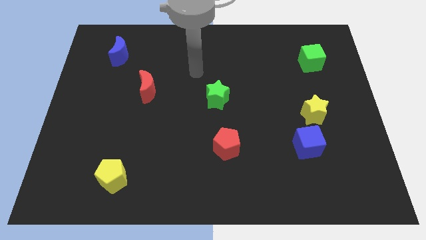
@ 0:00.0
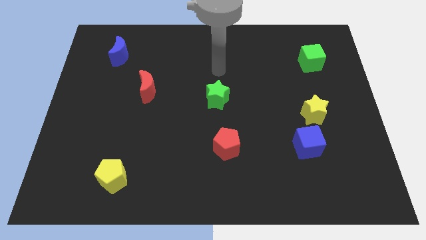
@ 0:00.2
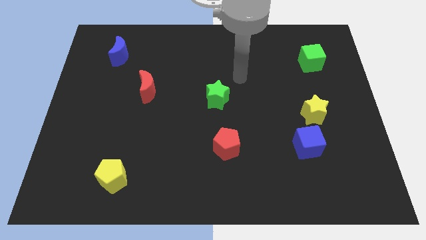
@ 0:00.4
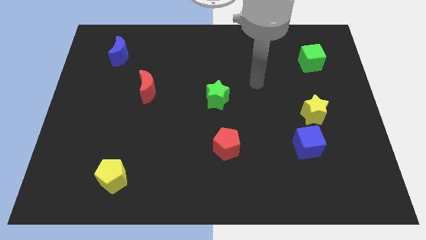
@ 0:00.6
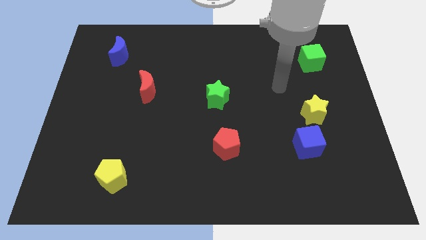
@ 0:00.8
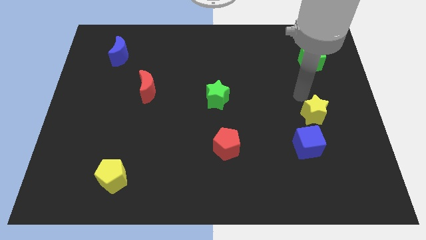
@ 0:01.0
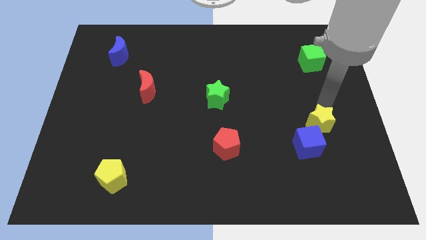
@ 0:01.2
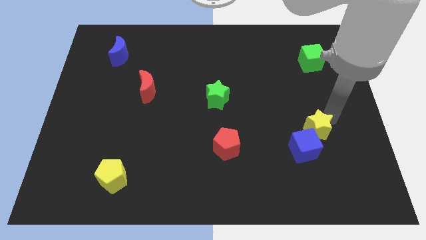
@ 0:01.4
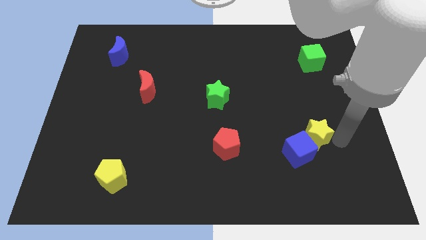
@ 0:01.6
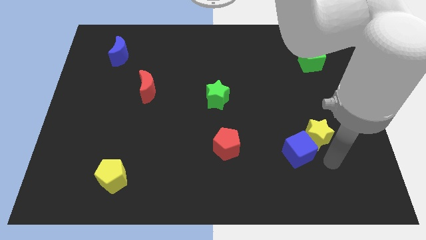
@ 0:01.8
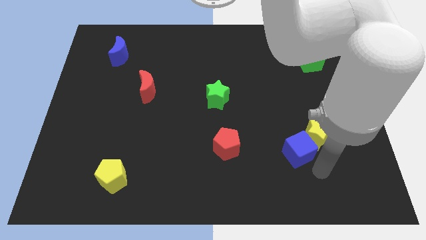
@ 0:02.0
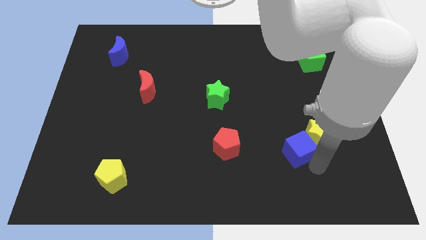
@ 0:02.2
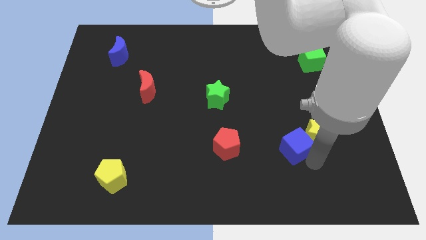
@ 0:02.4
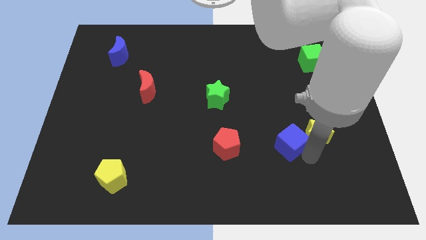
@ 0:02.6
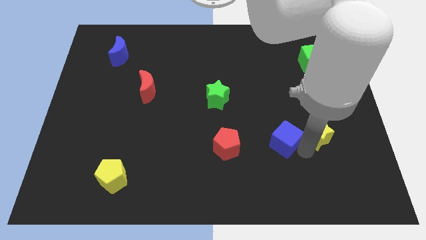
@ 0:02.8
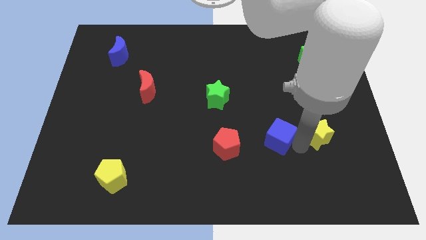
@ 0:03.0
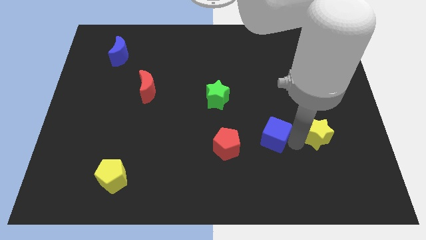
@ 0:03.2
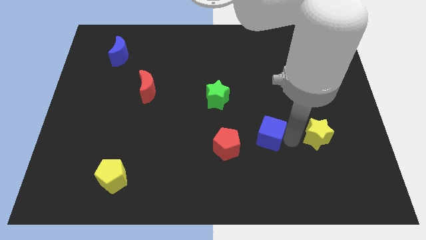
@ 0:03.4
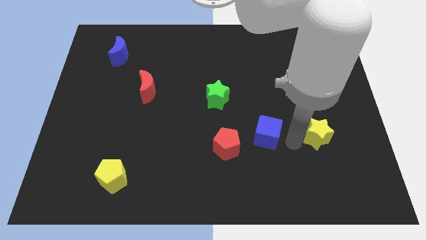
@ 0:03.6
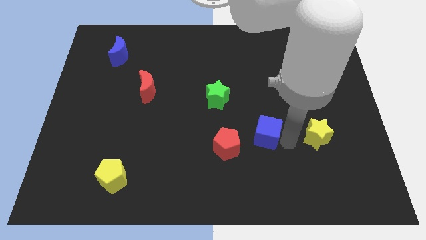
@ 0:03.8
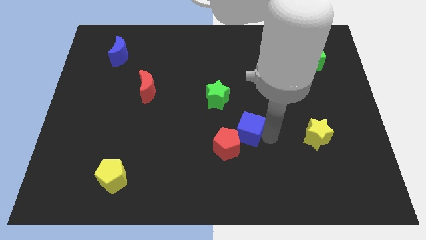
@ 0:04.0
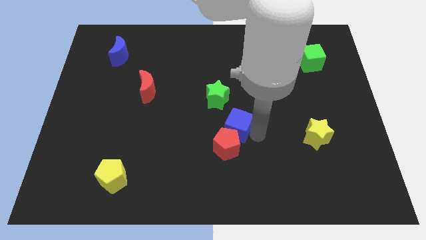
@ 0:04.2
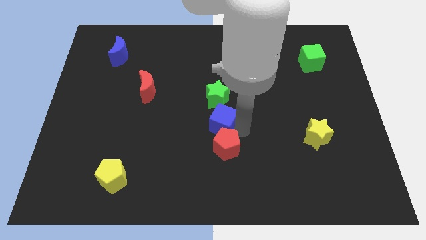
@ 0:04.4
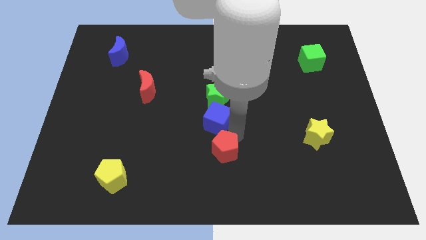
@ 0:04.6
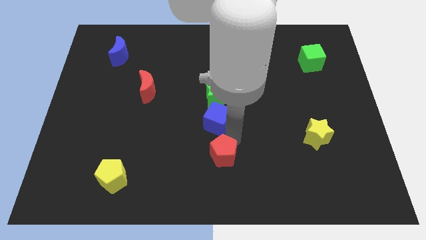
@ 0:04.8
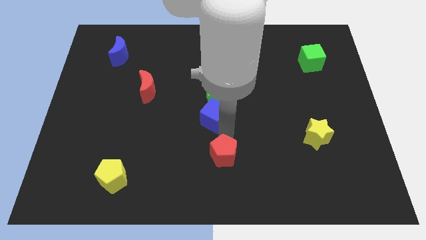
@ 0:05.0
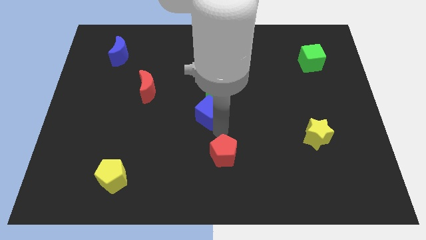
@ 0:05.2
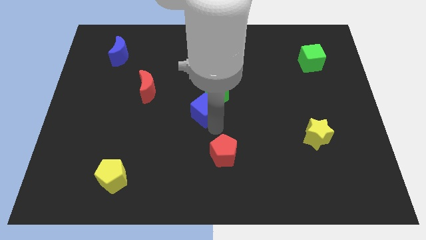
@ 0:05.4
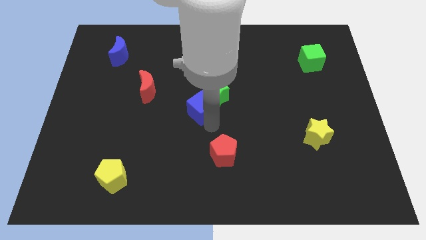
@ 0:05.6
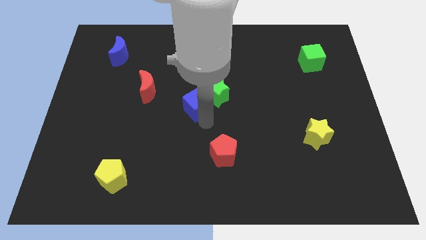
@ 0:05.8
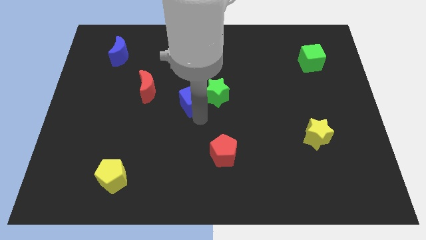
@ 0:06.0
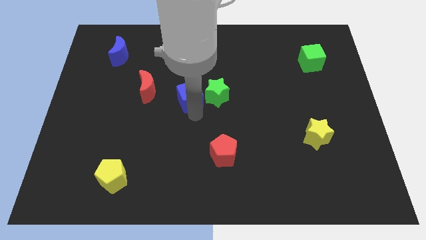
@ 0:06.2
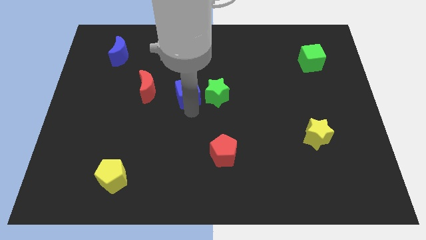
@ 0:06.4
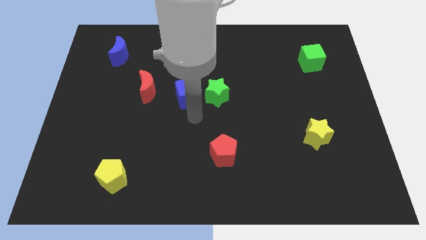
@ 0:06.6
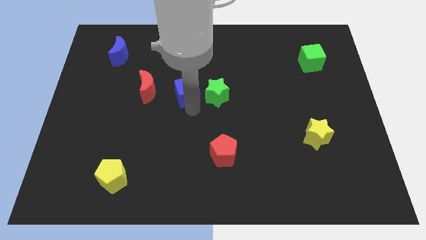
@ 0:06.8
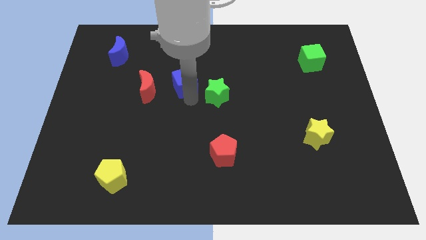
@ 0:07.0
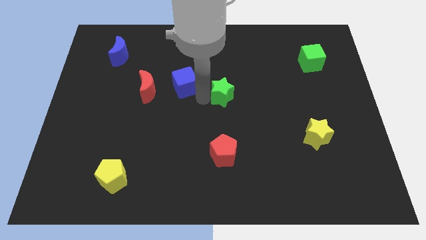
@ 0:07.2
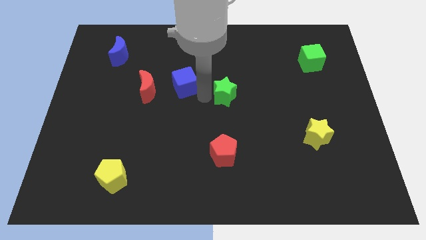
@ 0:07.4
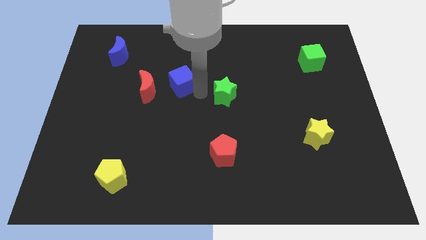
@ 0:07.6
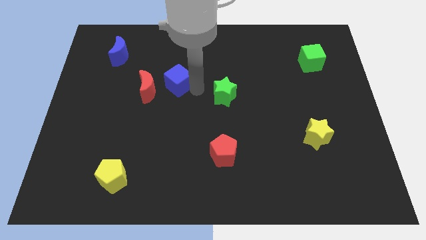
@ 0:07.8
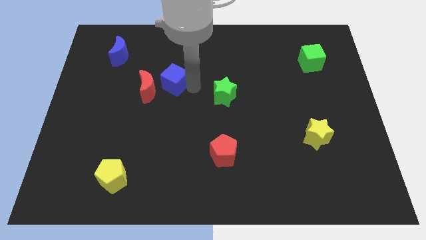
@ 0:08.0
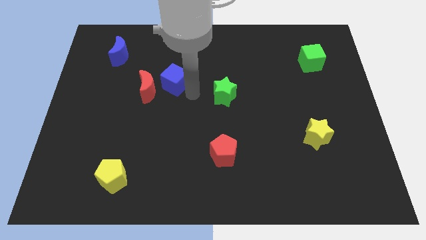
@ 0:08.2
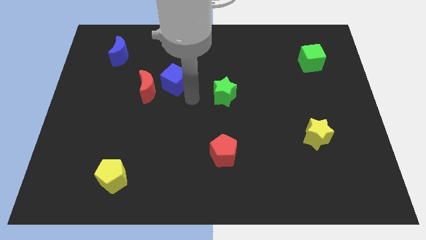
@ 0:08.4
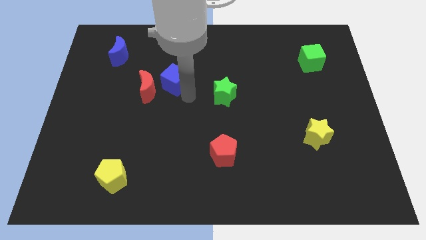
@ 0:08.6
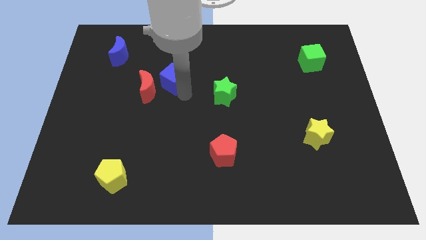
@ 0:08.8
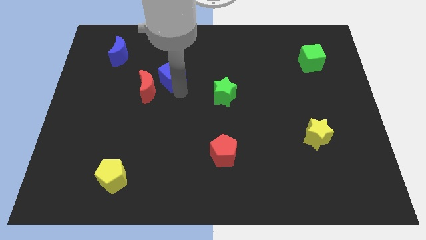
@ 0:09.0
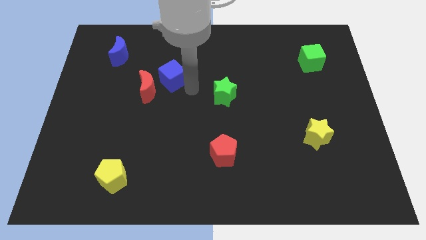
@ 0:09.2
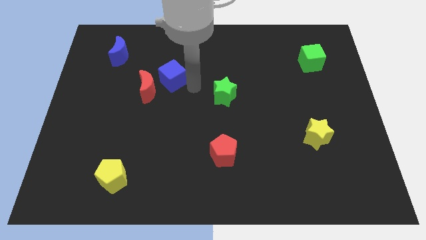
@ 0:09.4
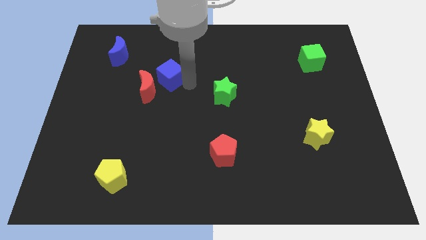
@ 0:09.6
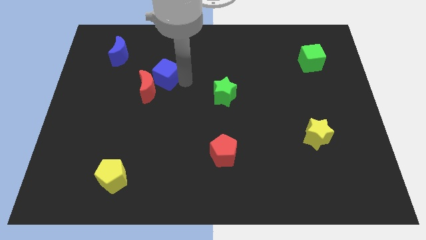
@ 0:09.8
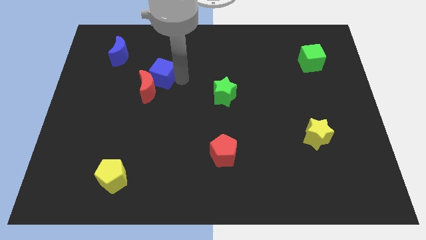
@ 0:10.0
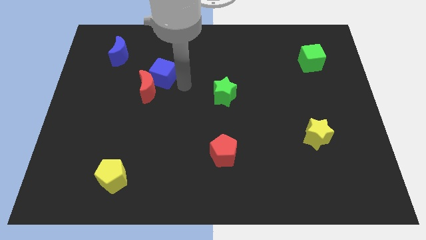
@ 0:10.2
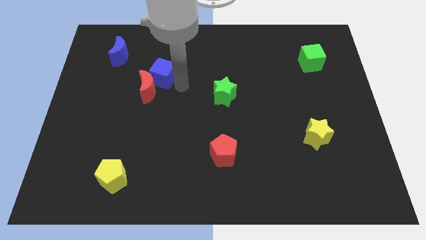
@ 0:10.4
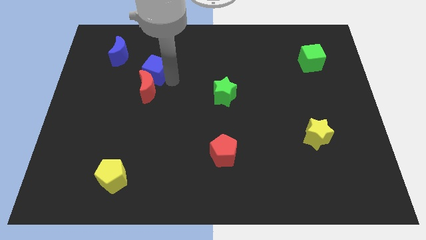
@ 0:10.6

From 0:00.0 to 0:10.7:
slide the blue cube diagonally down and to the right of the blue moon

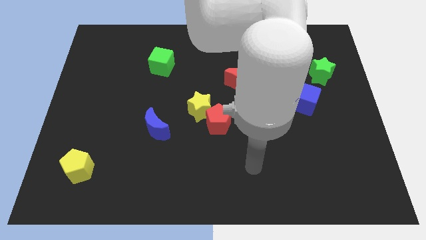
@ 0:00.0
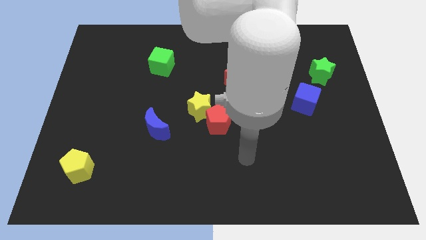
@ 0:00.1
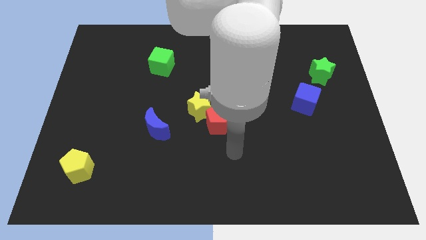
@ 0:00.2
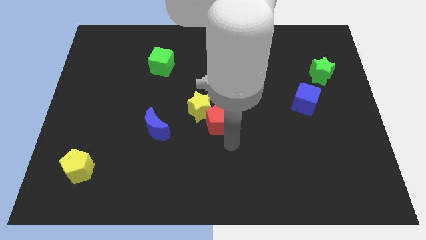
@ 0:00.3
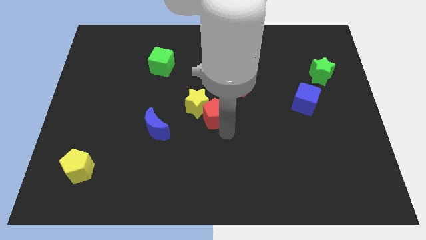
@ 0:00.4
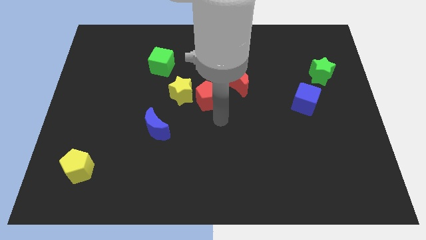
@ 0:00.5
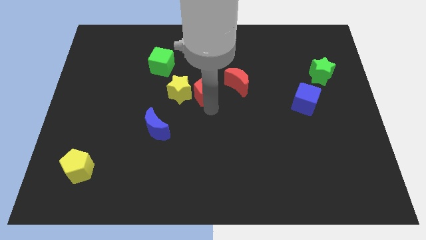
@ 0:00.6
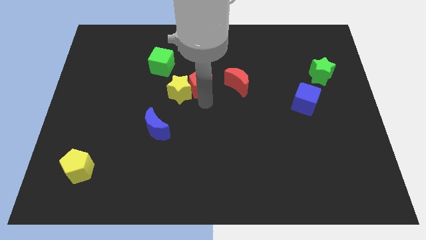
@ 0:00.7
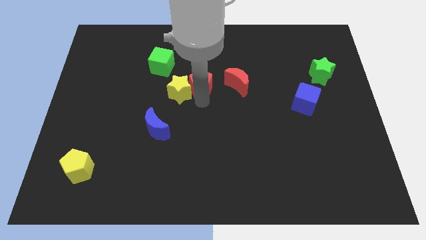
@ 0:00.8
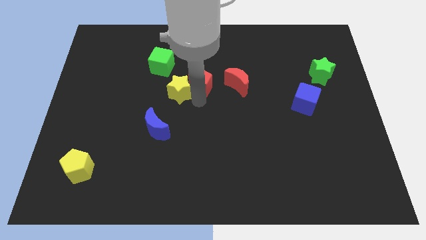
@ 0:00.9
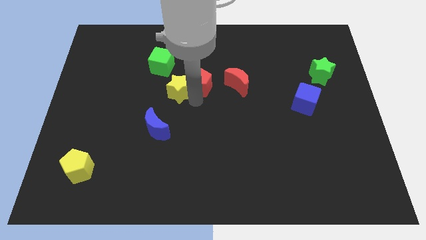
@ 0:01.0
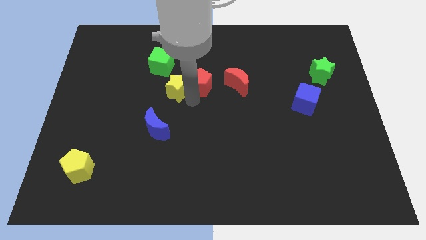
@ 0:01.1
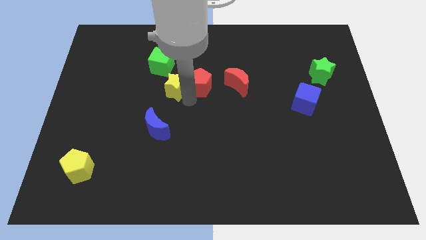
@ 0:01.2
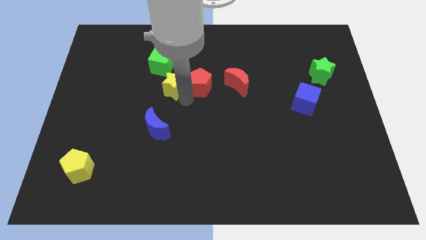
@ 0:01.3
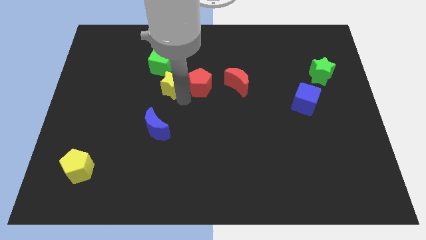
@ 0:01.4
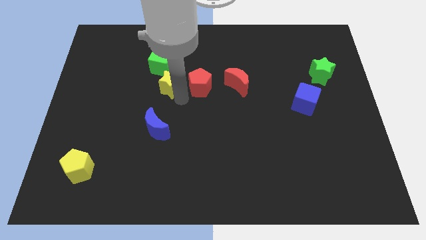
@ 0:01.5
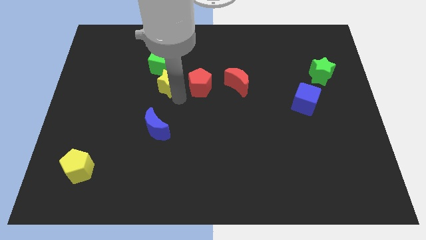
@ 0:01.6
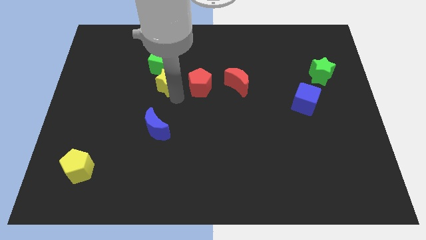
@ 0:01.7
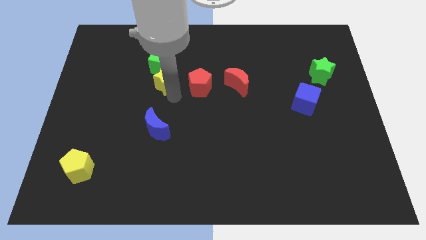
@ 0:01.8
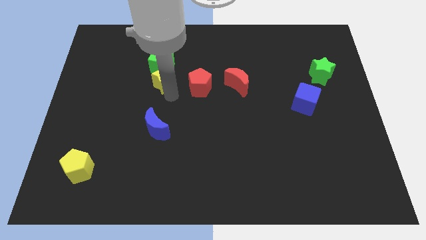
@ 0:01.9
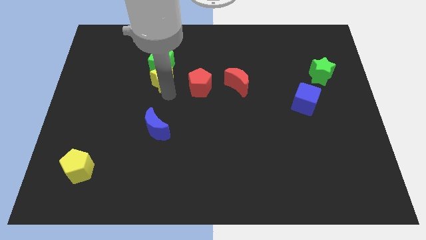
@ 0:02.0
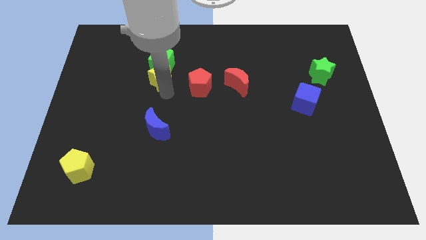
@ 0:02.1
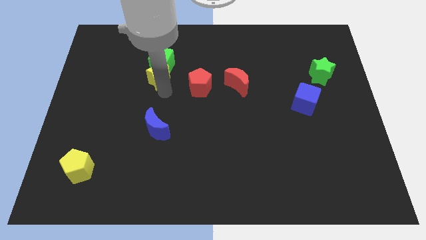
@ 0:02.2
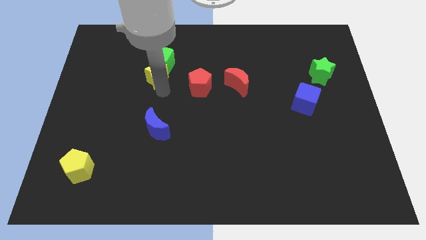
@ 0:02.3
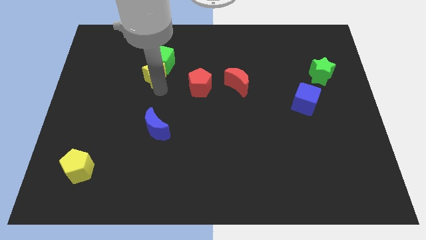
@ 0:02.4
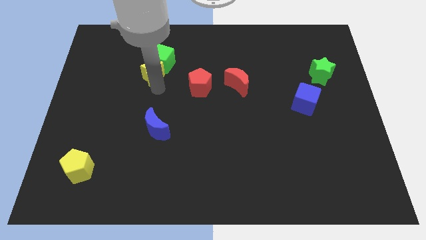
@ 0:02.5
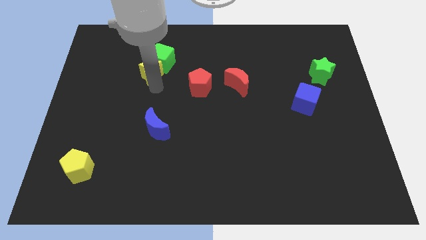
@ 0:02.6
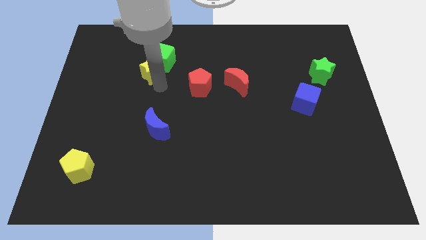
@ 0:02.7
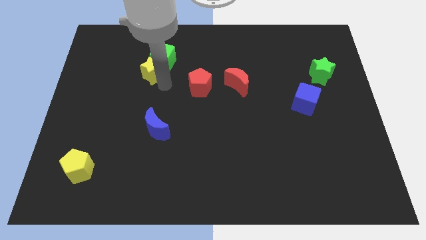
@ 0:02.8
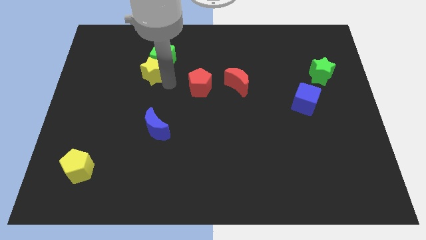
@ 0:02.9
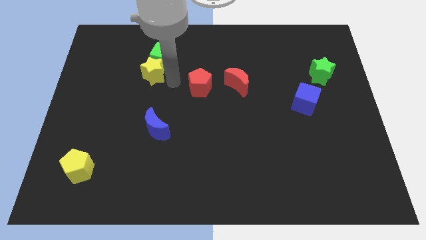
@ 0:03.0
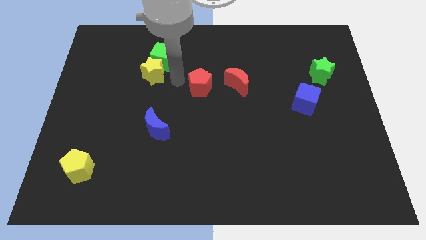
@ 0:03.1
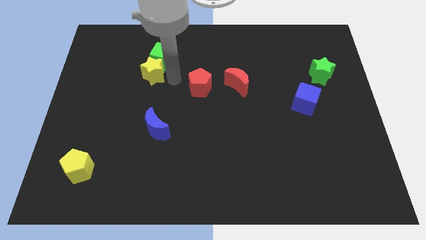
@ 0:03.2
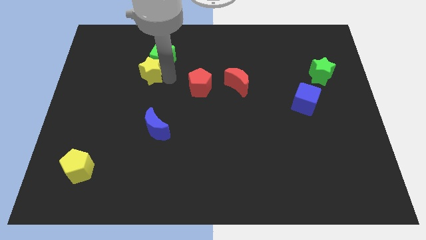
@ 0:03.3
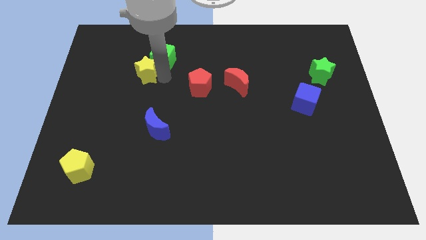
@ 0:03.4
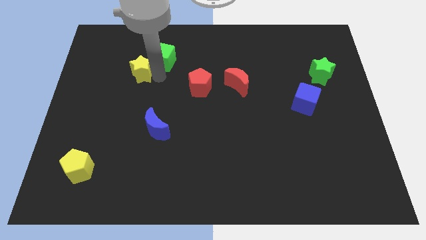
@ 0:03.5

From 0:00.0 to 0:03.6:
put the yellow star left of the green cube
